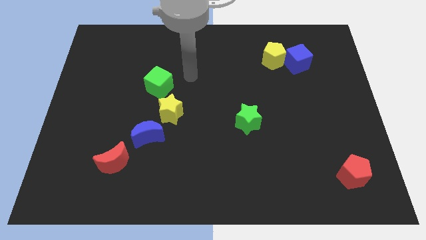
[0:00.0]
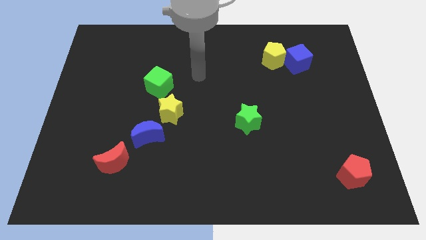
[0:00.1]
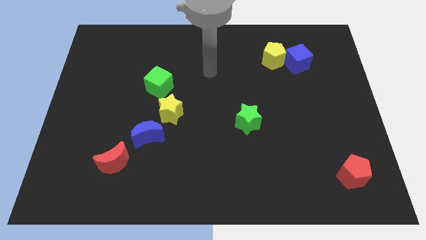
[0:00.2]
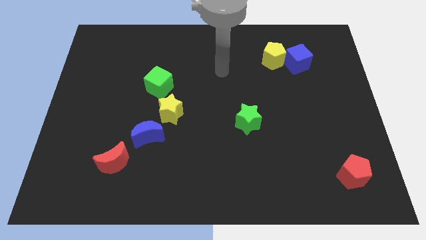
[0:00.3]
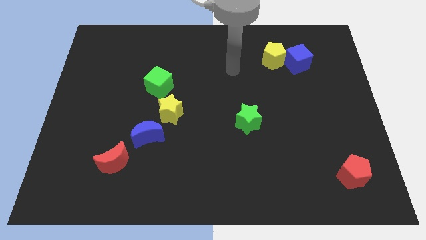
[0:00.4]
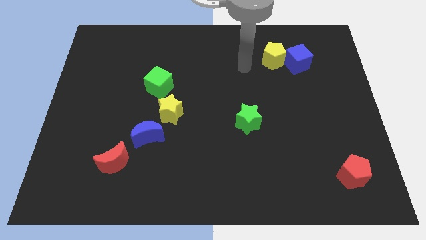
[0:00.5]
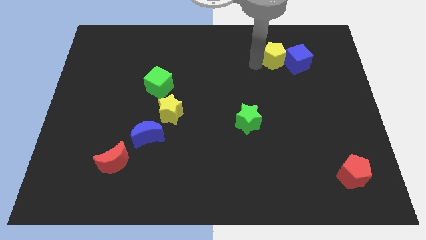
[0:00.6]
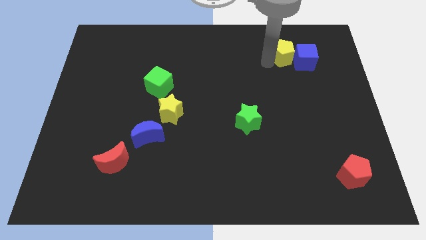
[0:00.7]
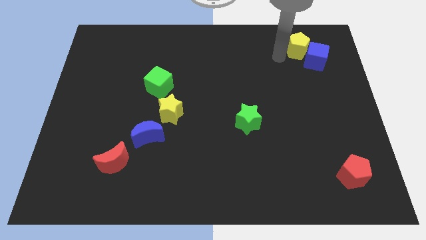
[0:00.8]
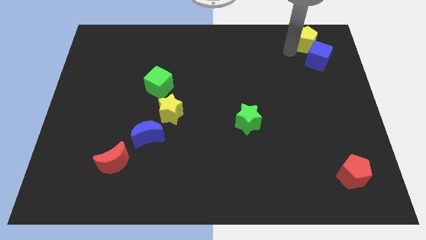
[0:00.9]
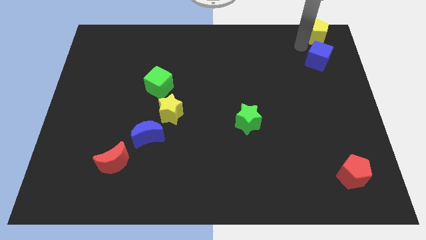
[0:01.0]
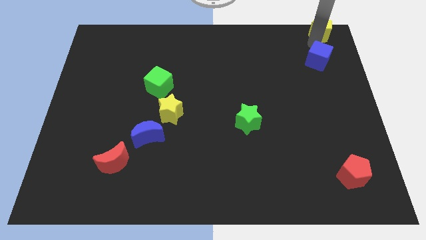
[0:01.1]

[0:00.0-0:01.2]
separate the blue cube from the yellow pentagon

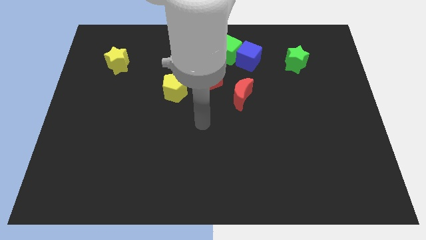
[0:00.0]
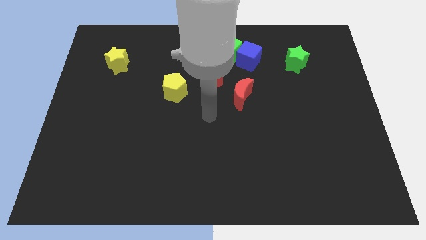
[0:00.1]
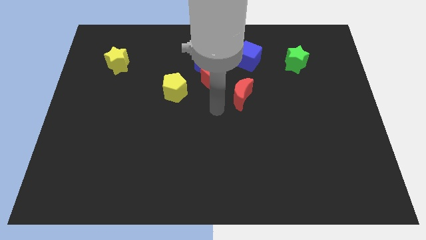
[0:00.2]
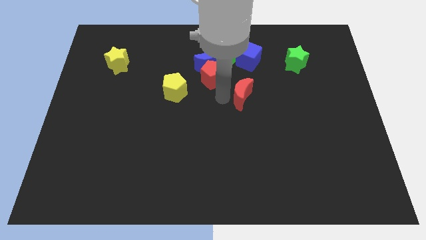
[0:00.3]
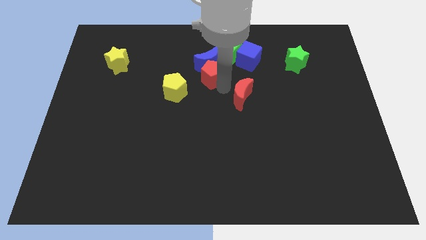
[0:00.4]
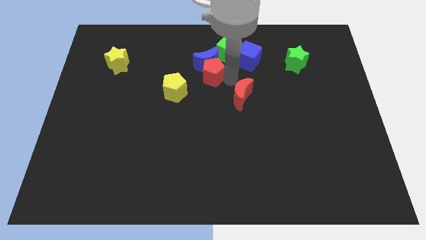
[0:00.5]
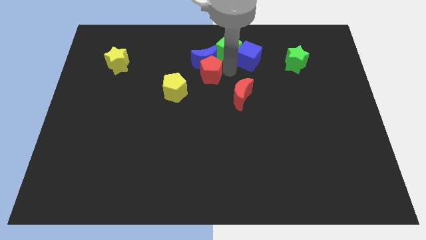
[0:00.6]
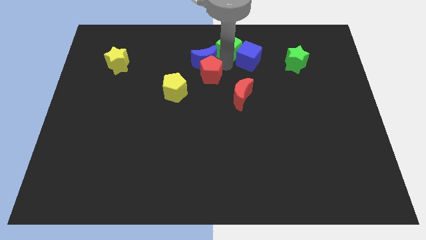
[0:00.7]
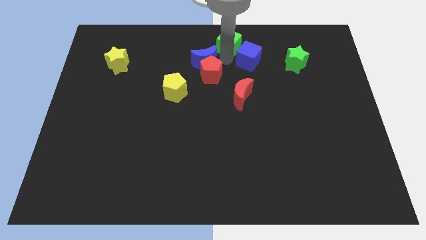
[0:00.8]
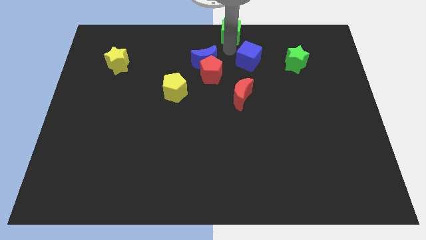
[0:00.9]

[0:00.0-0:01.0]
separate the blue cube from the green cube

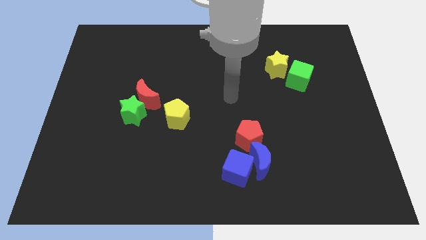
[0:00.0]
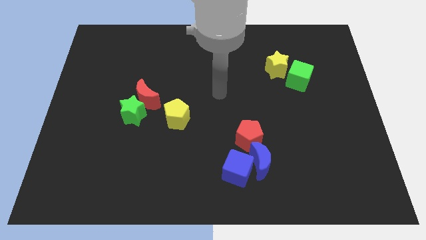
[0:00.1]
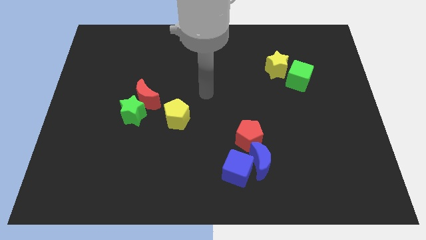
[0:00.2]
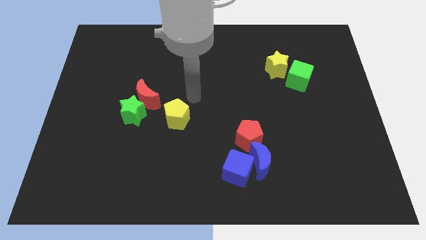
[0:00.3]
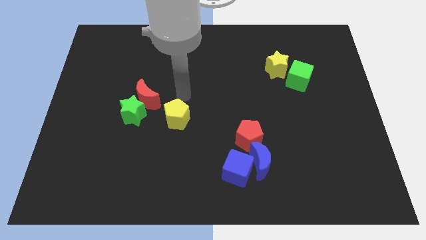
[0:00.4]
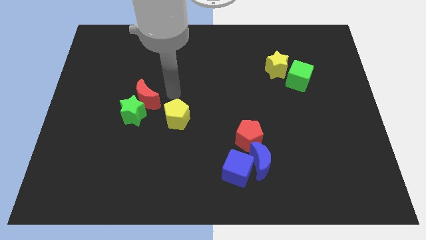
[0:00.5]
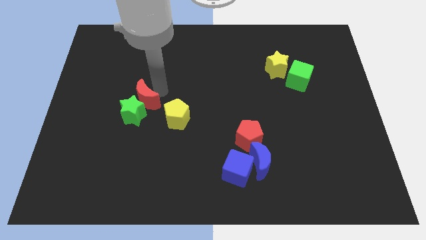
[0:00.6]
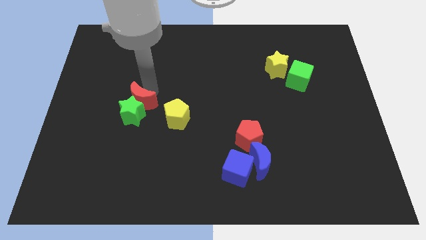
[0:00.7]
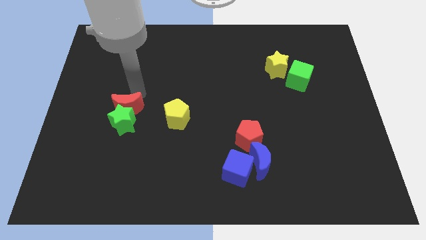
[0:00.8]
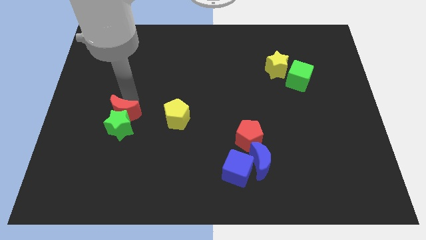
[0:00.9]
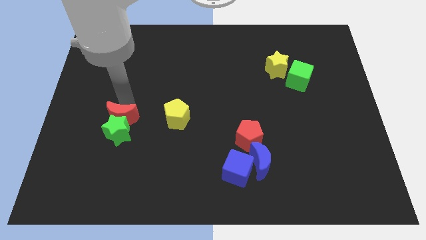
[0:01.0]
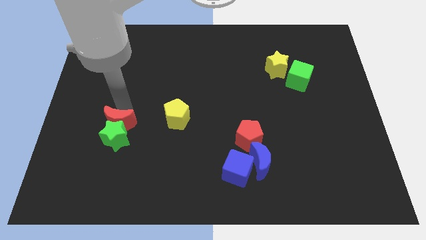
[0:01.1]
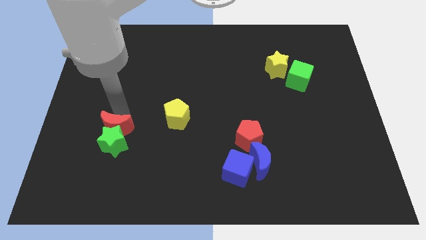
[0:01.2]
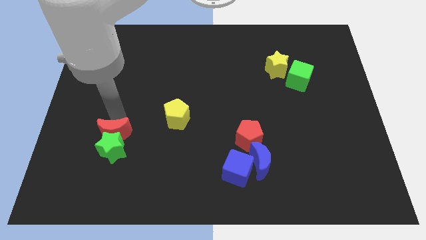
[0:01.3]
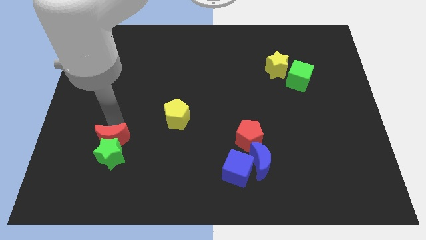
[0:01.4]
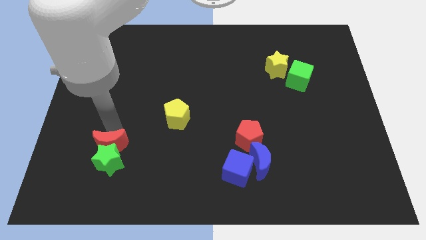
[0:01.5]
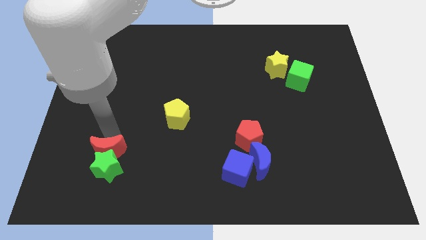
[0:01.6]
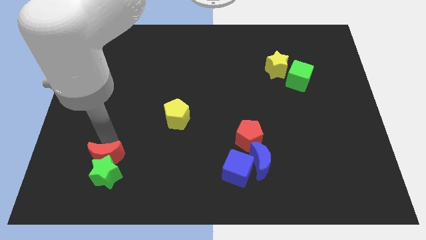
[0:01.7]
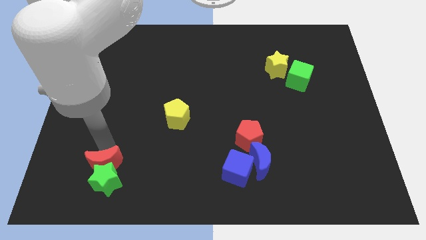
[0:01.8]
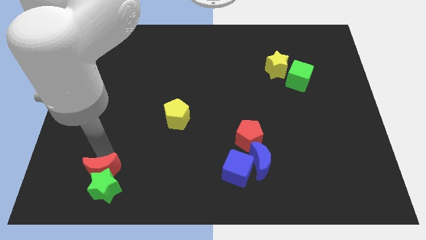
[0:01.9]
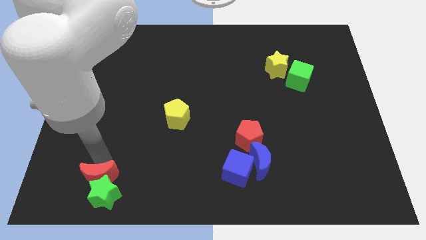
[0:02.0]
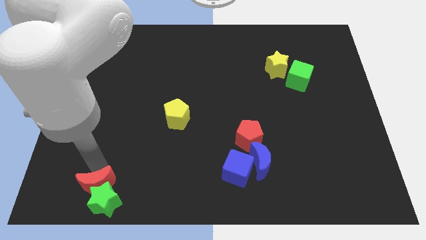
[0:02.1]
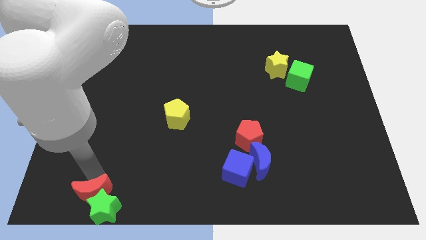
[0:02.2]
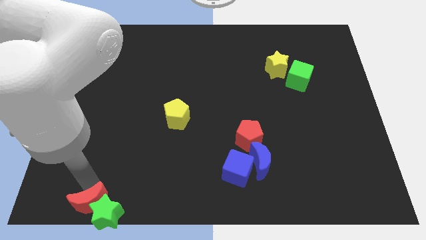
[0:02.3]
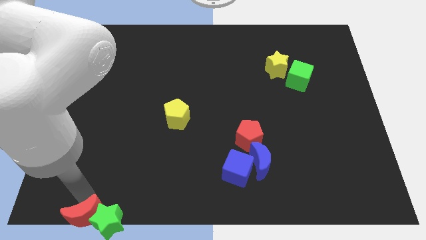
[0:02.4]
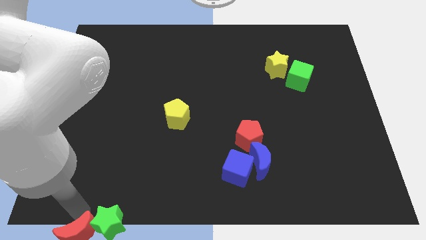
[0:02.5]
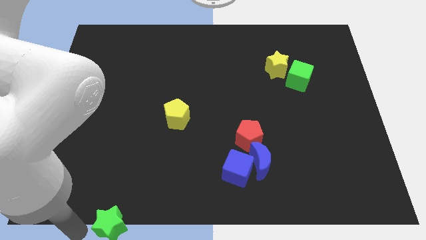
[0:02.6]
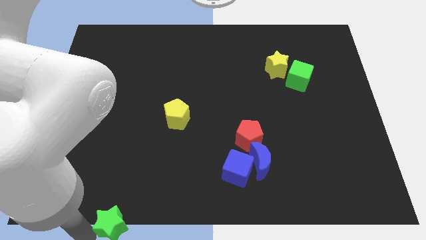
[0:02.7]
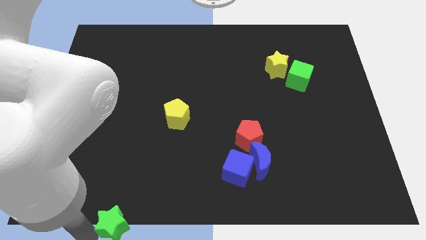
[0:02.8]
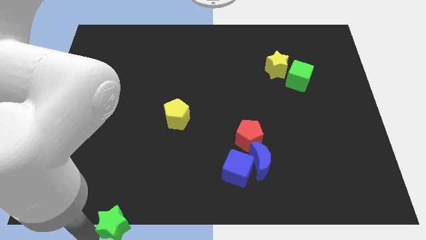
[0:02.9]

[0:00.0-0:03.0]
separate the green star from the red moon

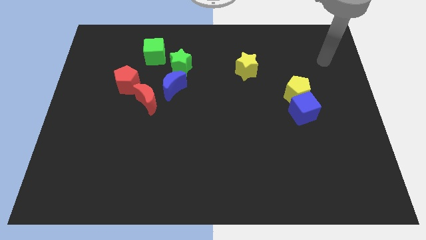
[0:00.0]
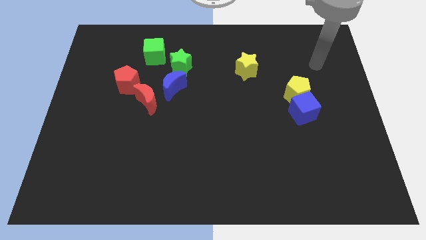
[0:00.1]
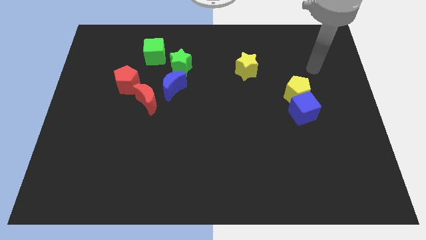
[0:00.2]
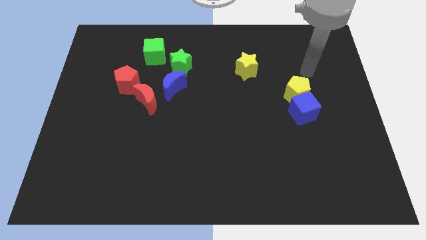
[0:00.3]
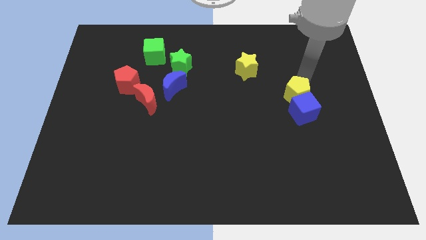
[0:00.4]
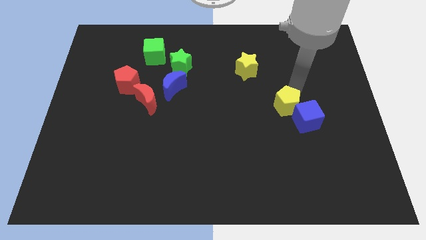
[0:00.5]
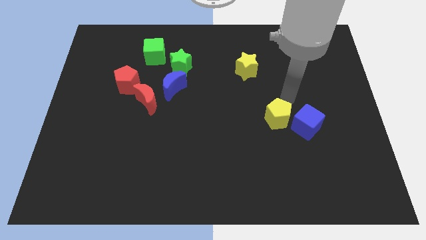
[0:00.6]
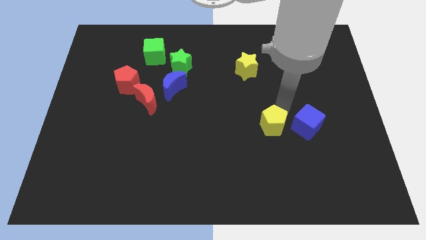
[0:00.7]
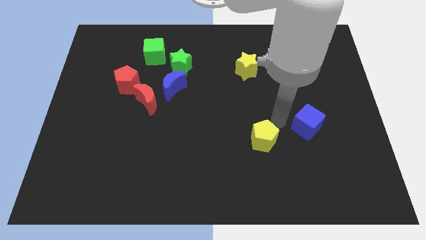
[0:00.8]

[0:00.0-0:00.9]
pull the blue cube apart from the yellow pentagon

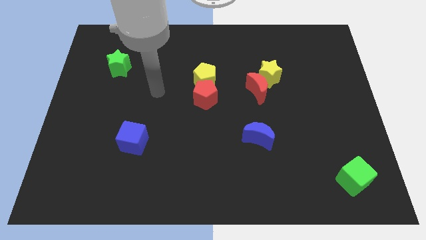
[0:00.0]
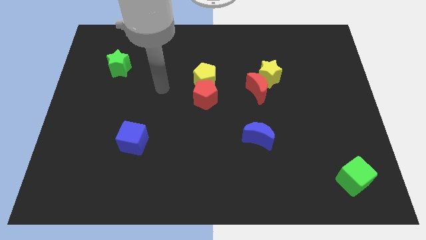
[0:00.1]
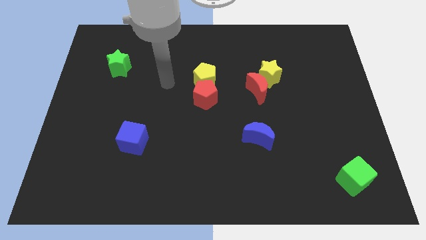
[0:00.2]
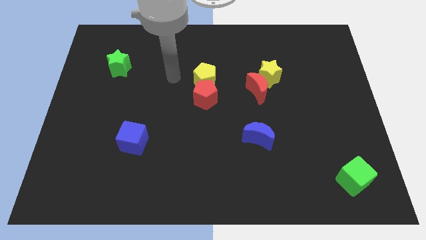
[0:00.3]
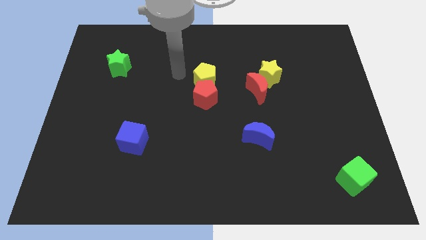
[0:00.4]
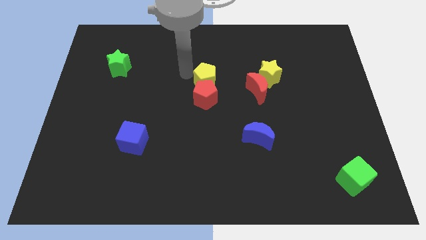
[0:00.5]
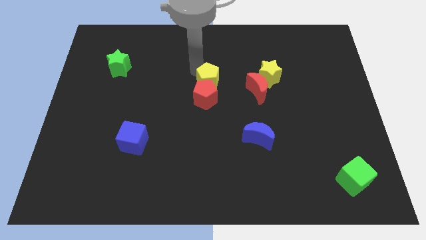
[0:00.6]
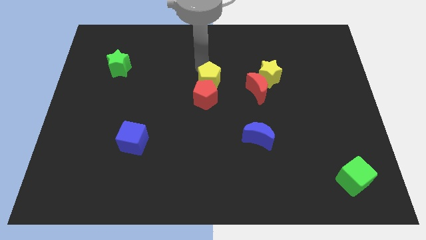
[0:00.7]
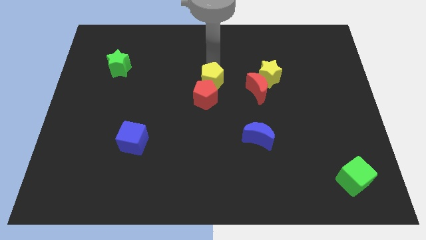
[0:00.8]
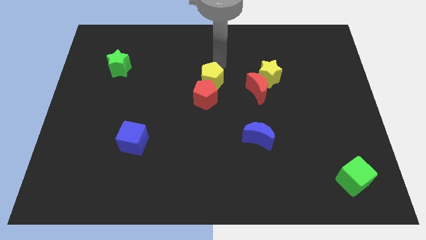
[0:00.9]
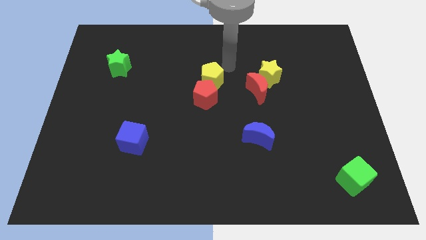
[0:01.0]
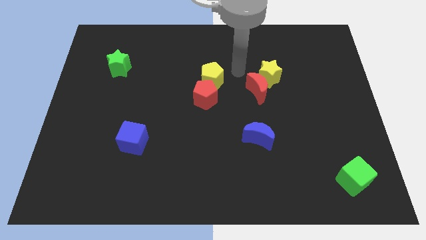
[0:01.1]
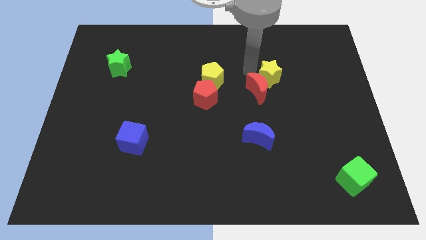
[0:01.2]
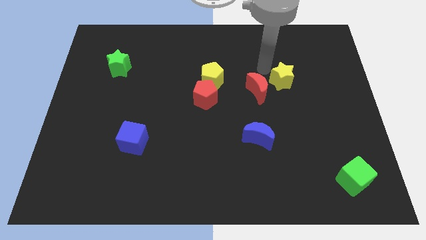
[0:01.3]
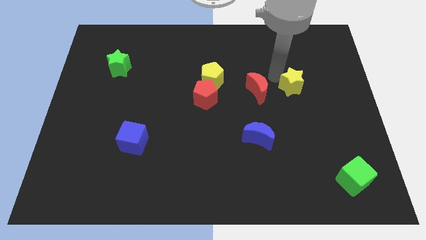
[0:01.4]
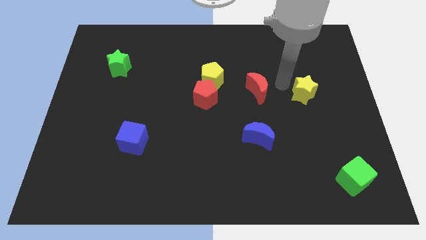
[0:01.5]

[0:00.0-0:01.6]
separate the red moon from the yellow star

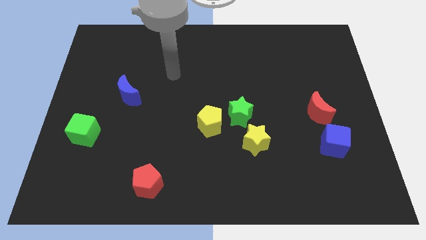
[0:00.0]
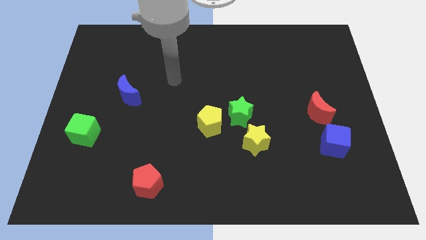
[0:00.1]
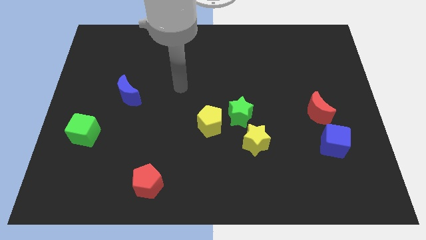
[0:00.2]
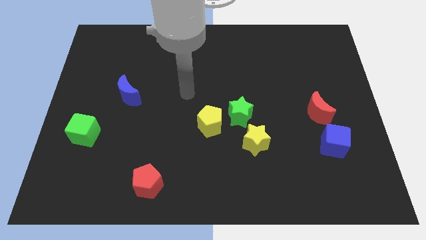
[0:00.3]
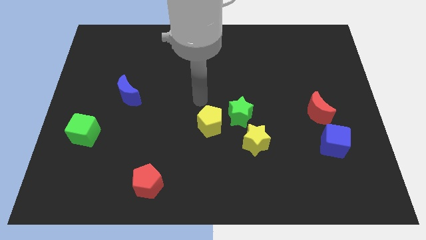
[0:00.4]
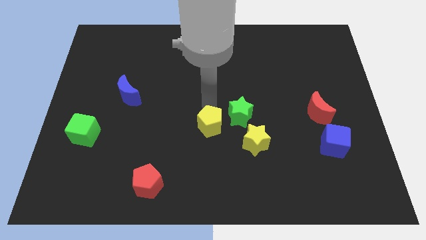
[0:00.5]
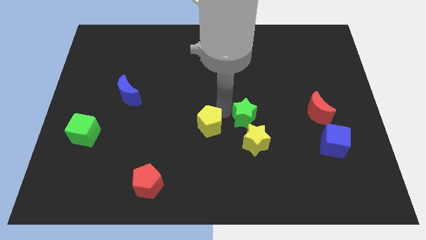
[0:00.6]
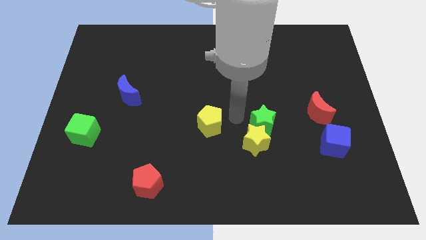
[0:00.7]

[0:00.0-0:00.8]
move the yellow pentagon away from the green star

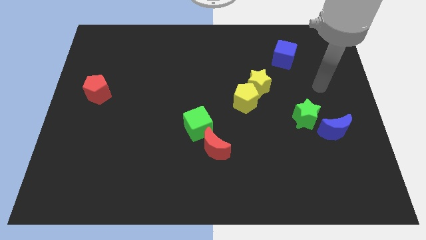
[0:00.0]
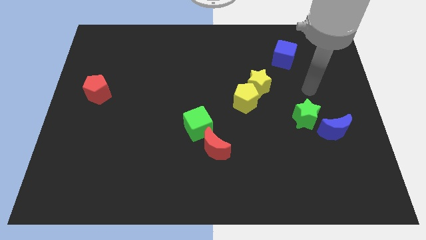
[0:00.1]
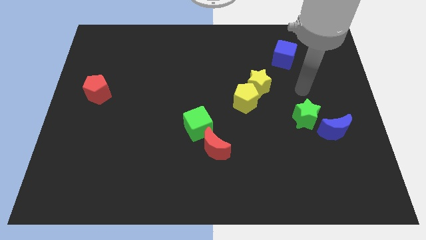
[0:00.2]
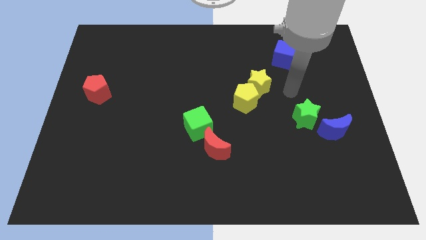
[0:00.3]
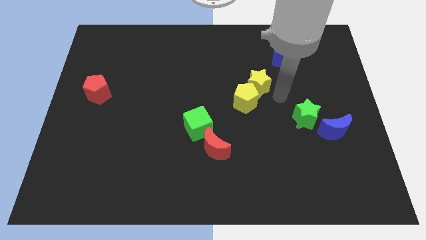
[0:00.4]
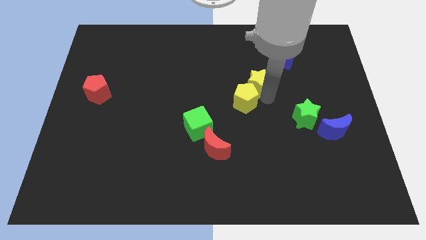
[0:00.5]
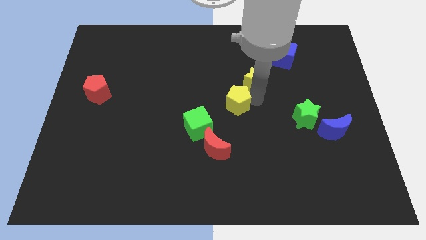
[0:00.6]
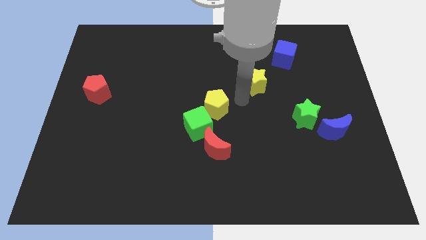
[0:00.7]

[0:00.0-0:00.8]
separate the yellow star from the yellow pentagon
